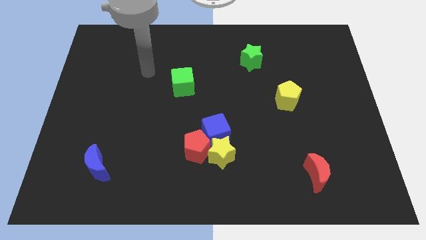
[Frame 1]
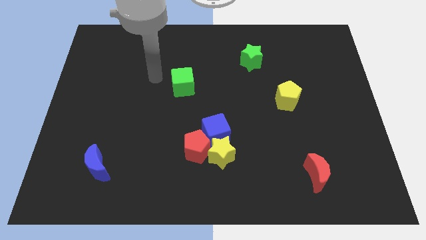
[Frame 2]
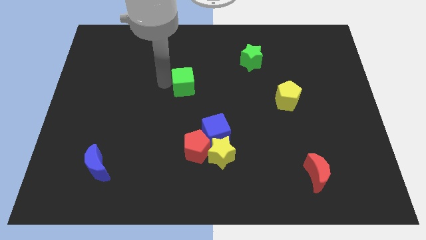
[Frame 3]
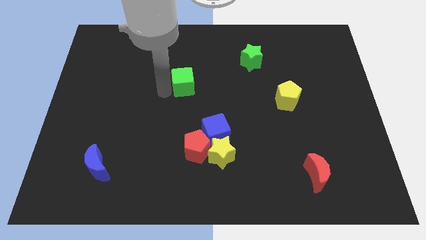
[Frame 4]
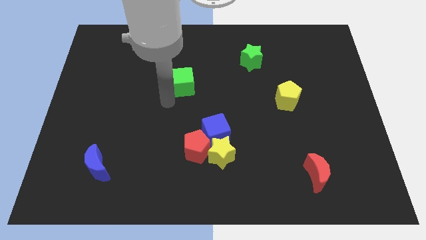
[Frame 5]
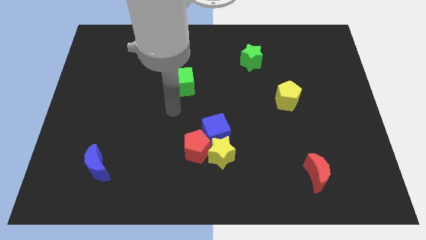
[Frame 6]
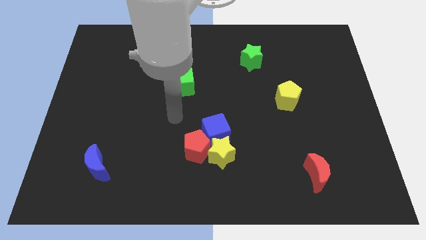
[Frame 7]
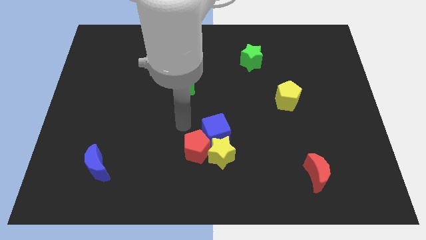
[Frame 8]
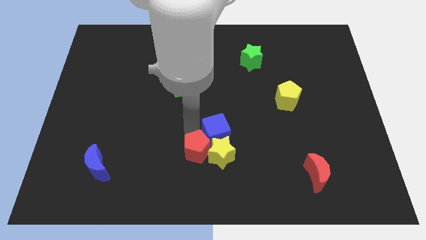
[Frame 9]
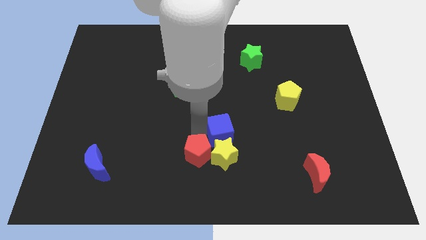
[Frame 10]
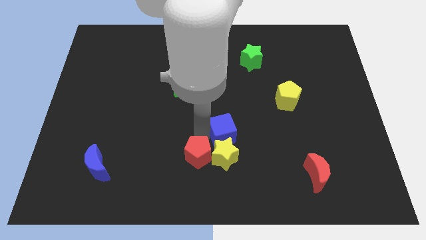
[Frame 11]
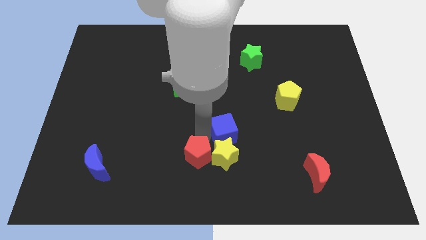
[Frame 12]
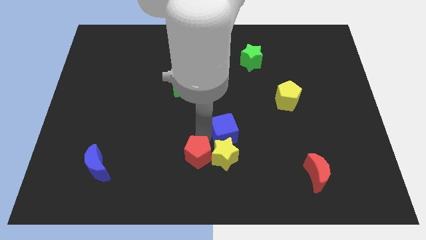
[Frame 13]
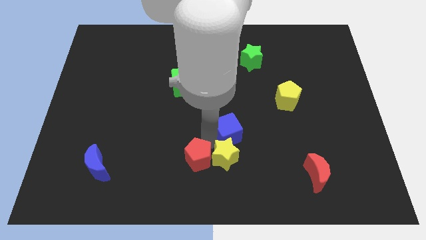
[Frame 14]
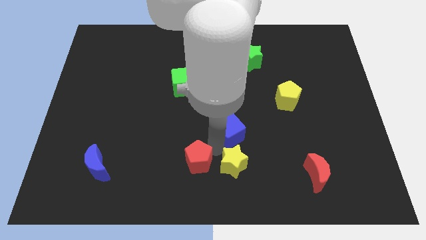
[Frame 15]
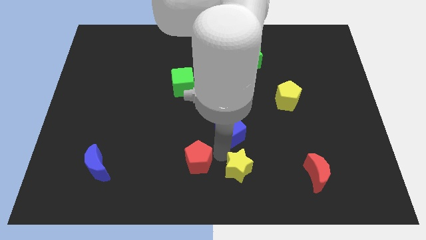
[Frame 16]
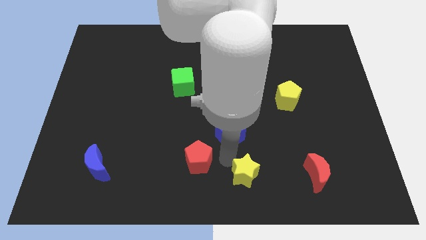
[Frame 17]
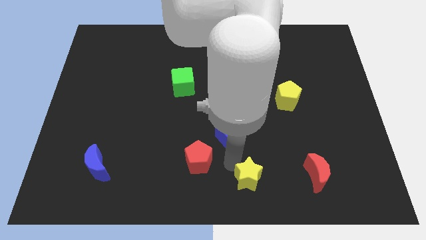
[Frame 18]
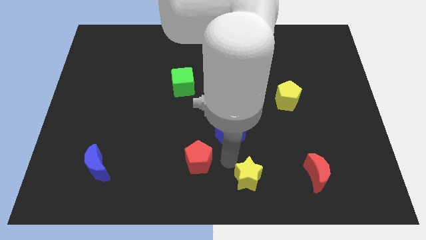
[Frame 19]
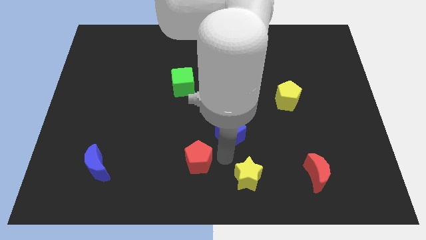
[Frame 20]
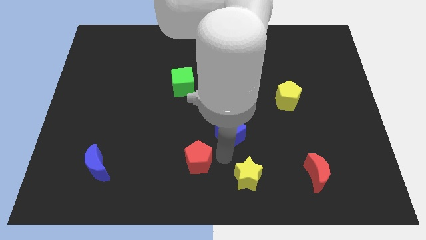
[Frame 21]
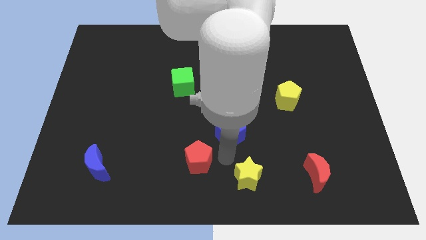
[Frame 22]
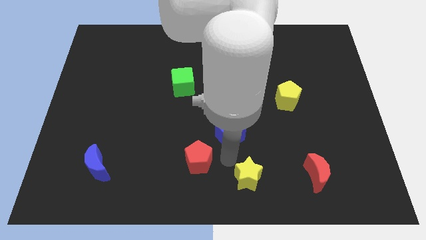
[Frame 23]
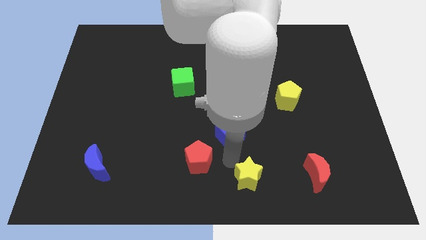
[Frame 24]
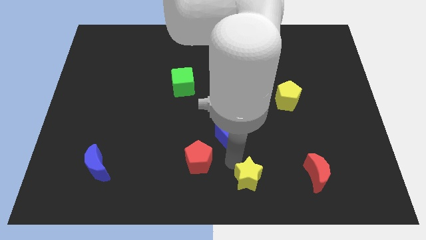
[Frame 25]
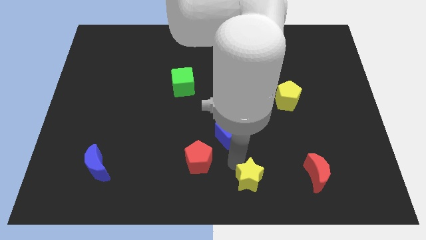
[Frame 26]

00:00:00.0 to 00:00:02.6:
separate the yellow star from the blue cube and red pentagon

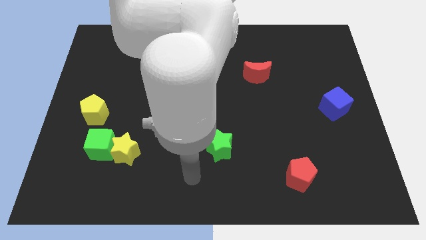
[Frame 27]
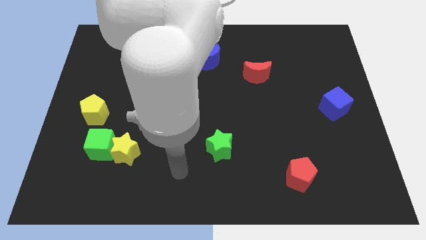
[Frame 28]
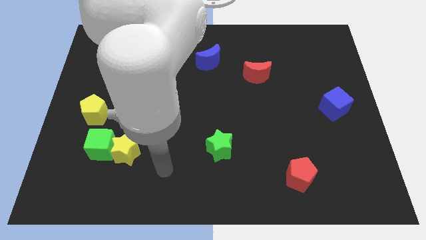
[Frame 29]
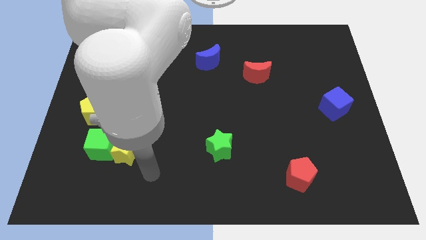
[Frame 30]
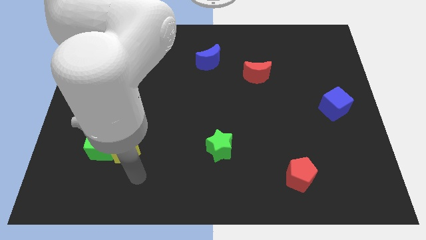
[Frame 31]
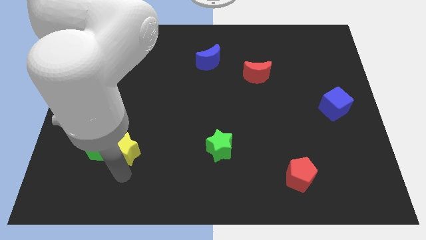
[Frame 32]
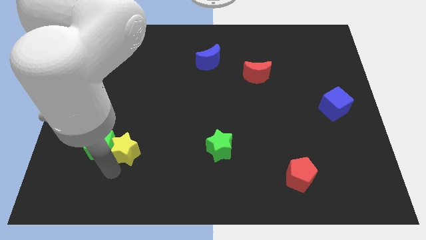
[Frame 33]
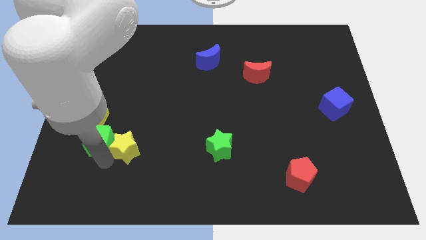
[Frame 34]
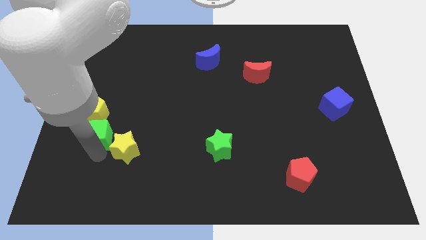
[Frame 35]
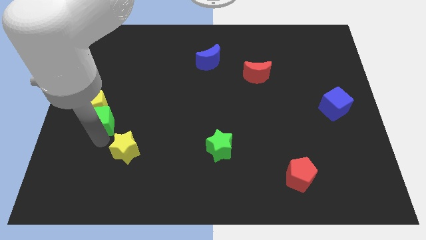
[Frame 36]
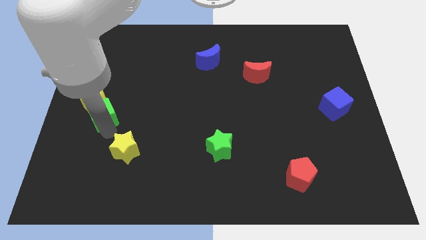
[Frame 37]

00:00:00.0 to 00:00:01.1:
separate the yellow star from the green cube

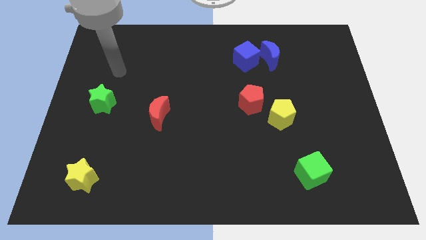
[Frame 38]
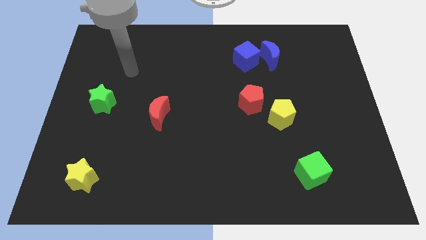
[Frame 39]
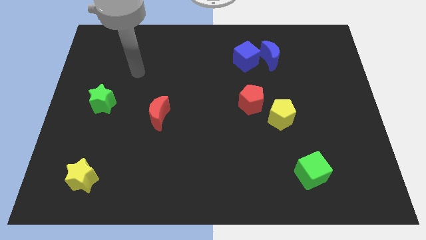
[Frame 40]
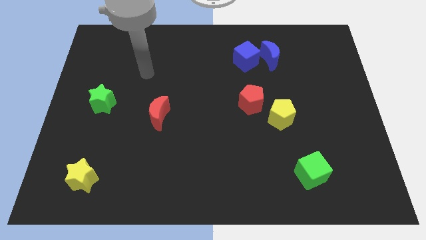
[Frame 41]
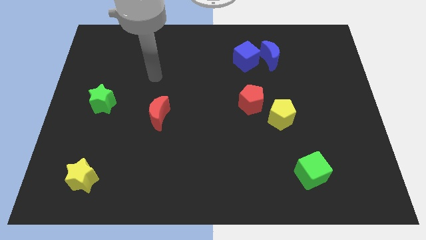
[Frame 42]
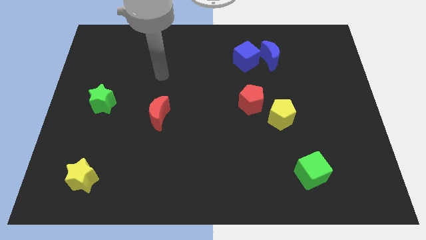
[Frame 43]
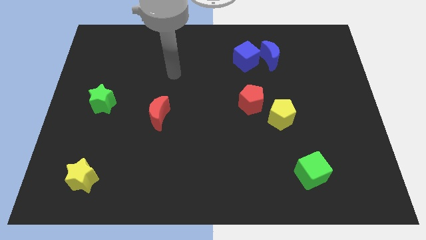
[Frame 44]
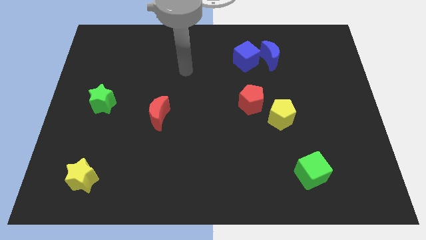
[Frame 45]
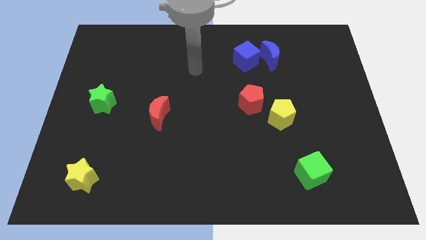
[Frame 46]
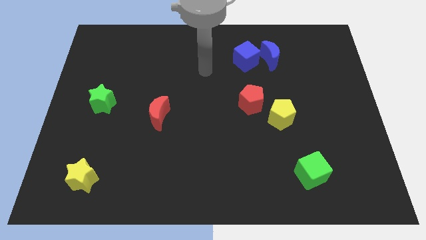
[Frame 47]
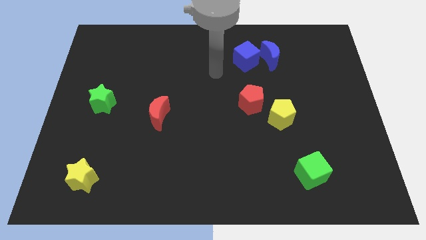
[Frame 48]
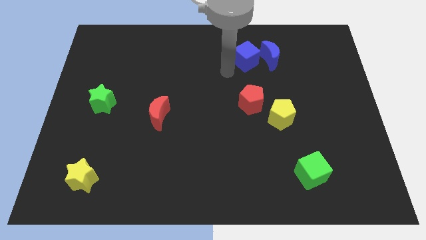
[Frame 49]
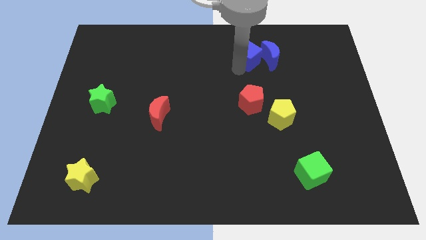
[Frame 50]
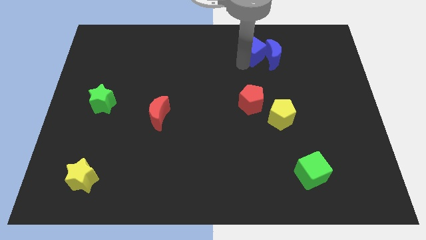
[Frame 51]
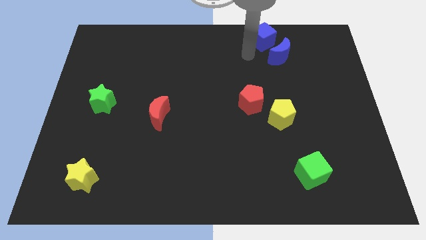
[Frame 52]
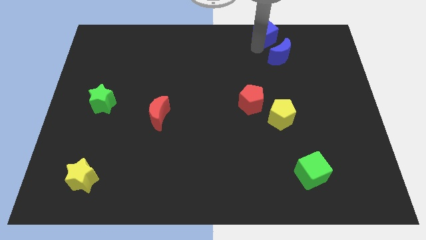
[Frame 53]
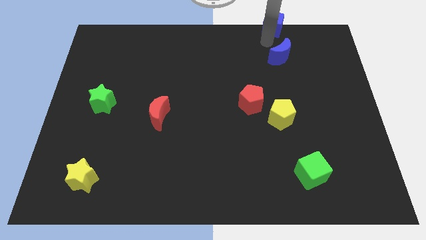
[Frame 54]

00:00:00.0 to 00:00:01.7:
pull the blue moon apart from the blue cube

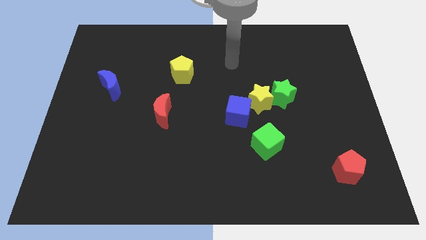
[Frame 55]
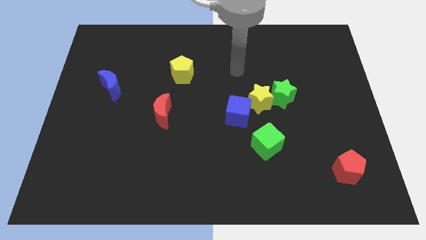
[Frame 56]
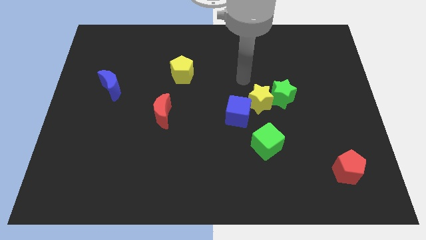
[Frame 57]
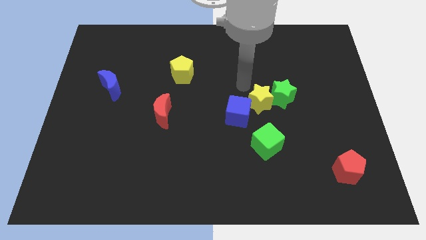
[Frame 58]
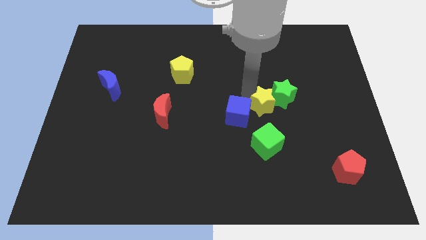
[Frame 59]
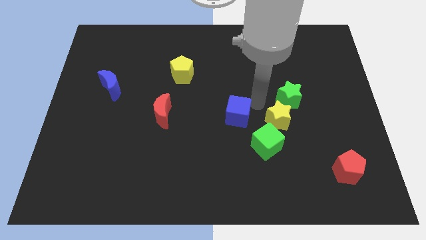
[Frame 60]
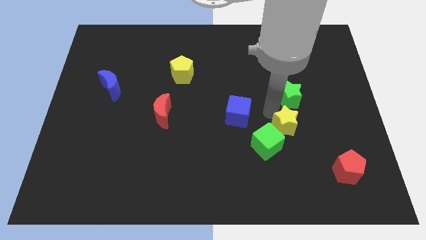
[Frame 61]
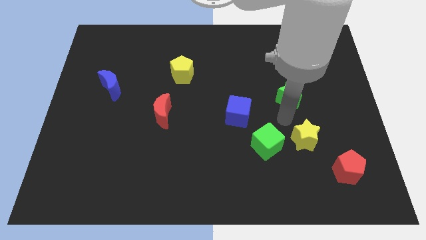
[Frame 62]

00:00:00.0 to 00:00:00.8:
separate the green star from the yellow star

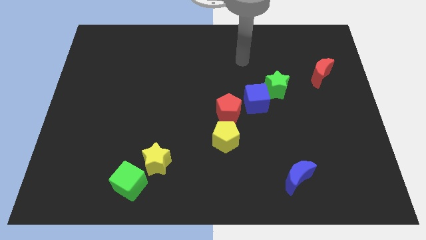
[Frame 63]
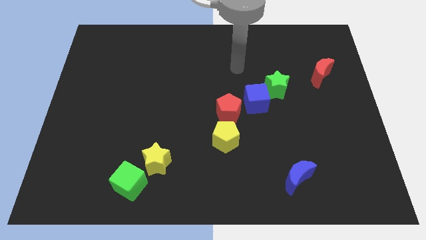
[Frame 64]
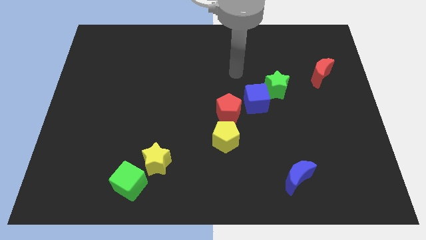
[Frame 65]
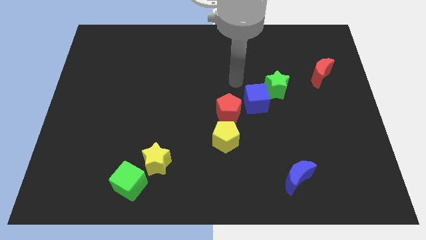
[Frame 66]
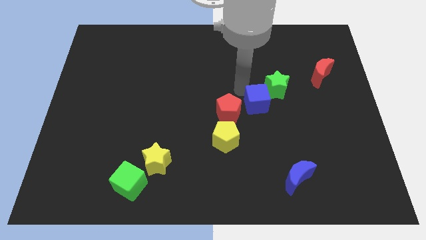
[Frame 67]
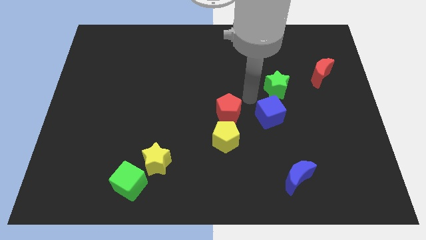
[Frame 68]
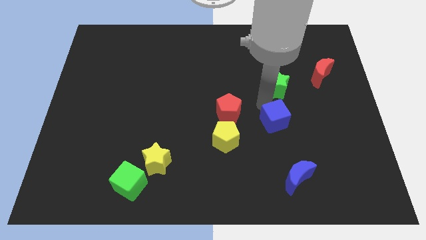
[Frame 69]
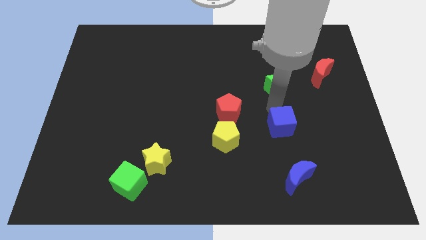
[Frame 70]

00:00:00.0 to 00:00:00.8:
move the green star away from the blue cube

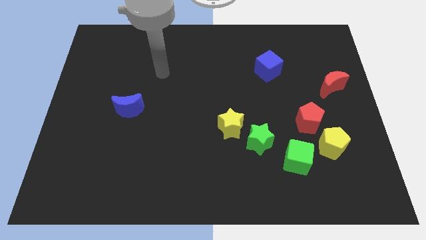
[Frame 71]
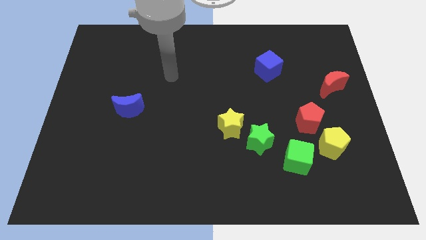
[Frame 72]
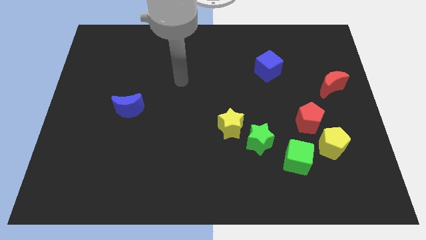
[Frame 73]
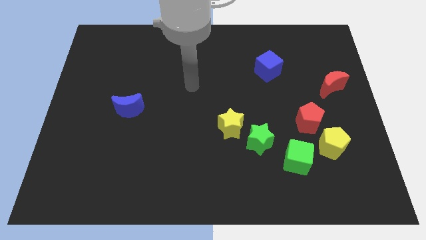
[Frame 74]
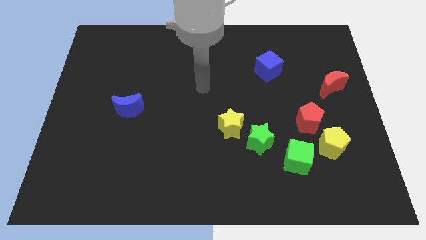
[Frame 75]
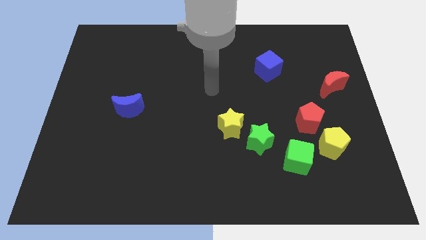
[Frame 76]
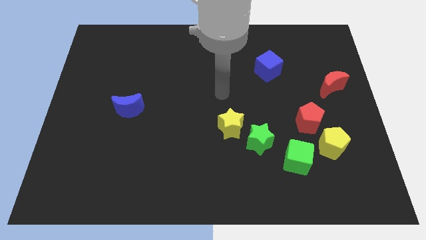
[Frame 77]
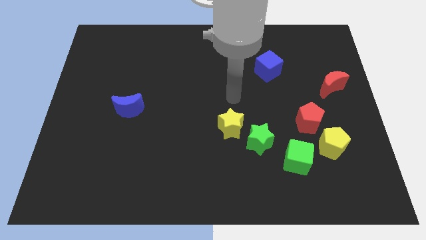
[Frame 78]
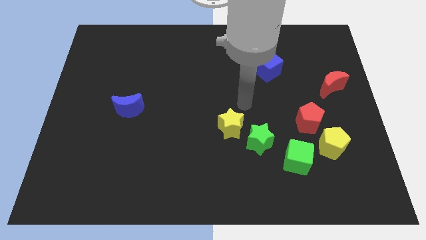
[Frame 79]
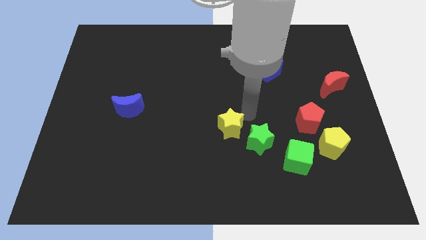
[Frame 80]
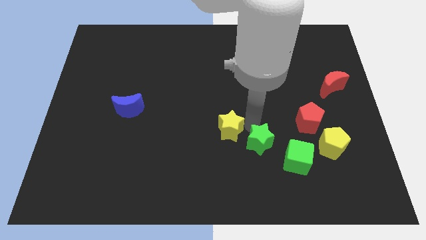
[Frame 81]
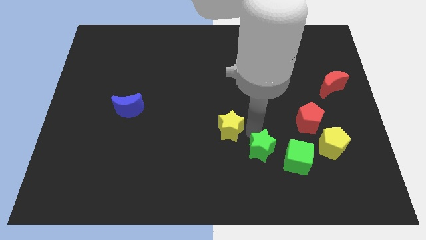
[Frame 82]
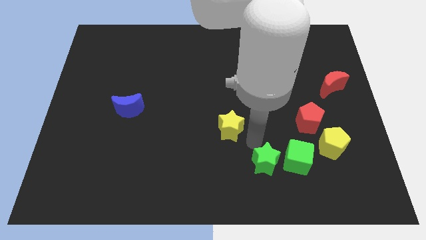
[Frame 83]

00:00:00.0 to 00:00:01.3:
move the yellow star away from the green star

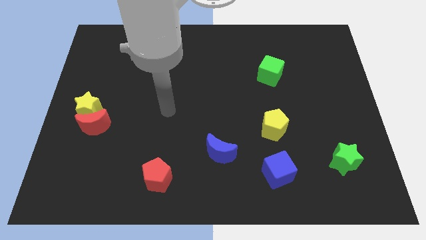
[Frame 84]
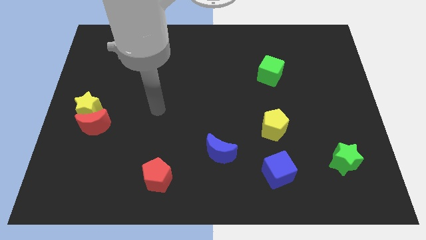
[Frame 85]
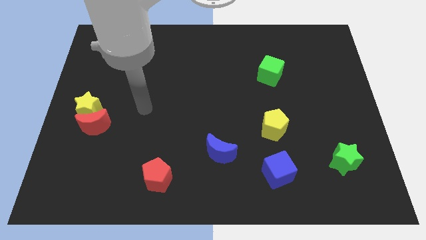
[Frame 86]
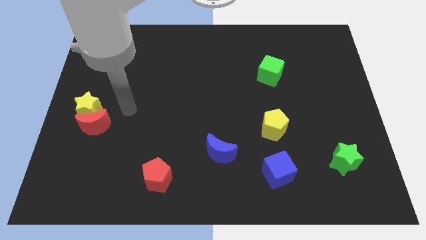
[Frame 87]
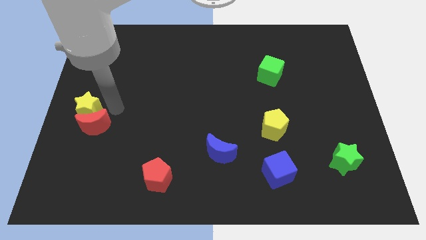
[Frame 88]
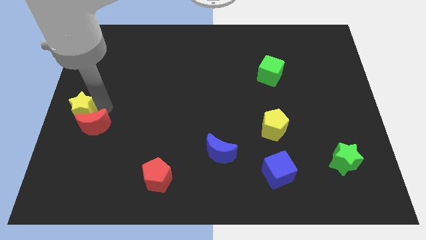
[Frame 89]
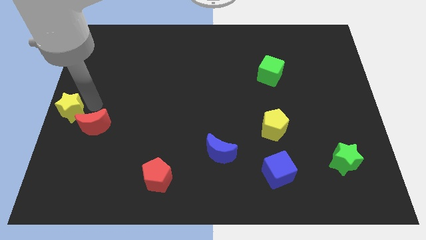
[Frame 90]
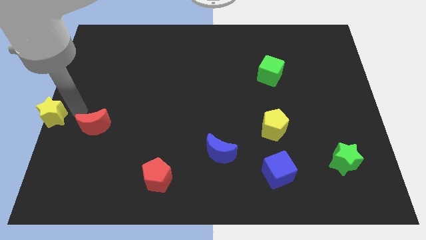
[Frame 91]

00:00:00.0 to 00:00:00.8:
pull the red moon apart from the yellow star

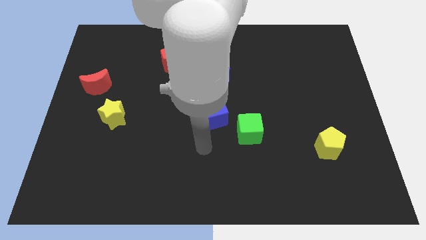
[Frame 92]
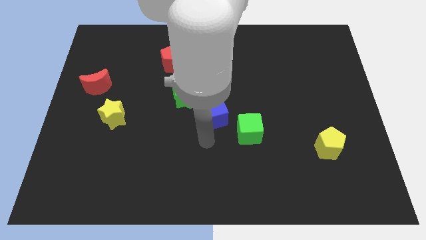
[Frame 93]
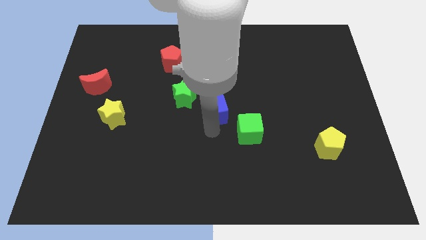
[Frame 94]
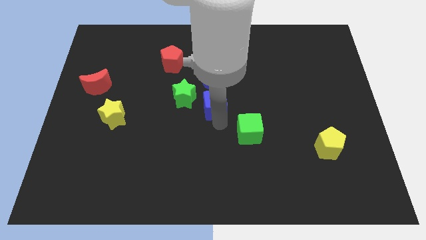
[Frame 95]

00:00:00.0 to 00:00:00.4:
pull the green cube apart from the blue cube
